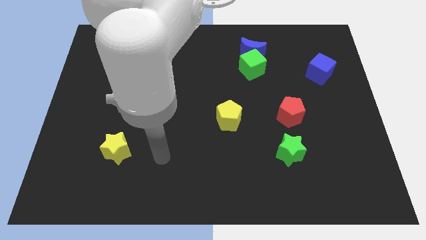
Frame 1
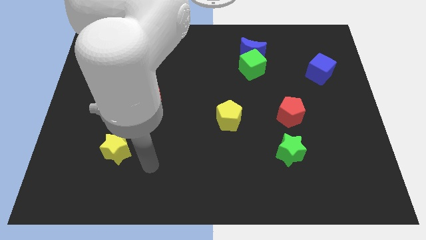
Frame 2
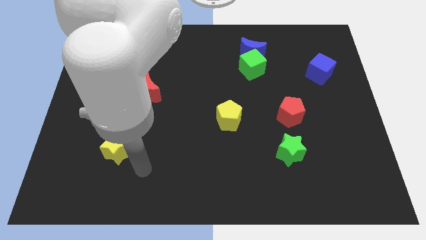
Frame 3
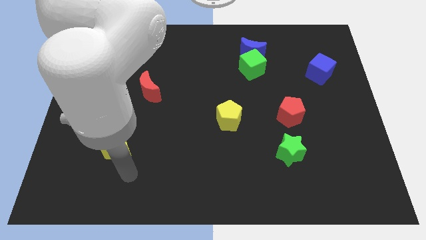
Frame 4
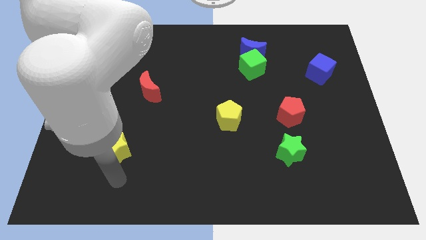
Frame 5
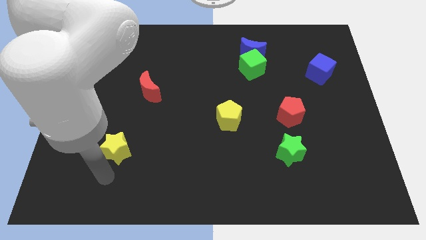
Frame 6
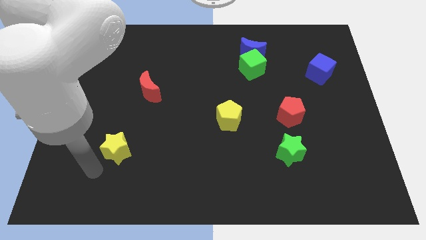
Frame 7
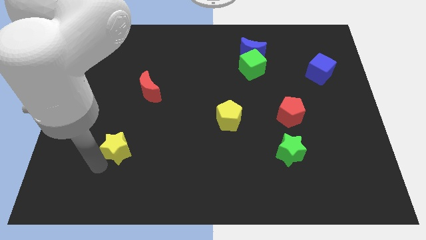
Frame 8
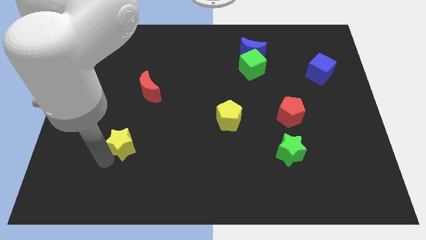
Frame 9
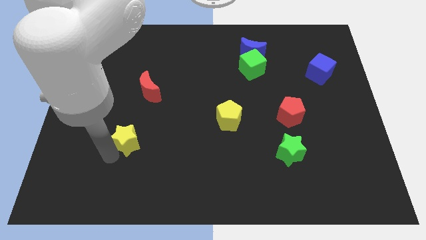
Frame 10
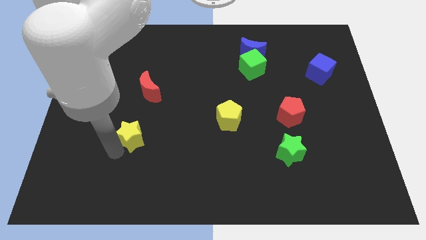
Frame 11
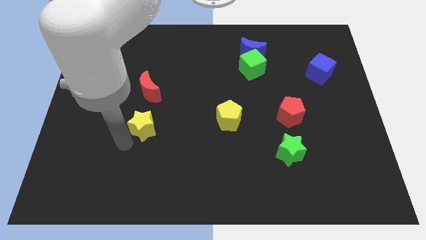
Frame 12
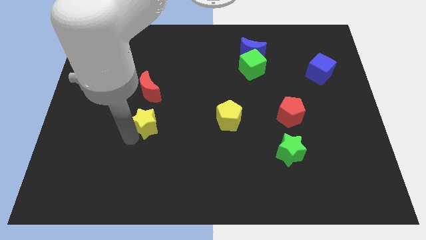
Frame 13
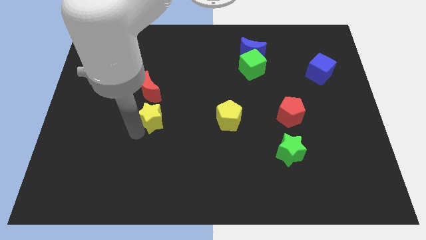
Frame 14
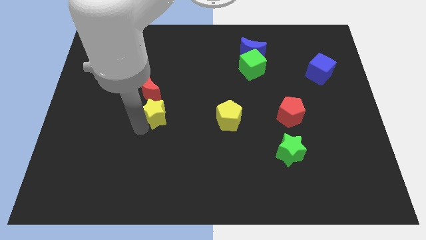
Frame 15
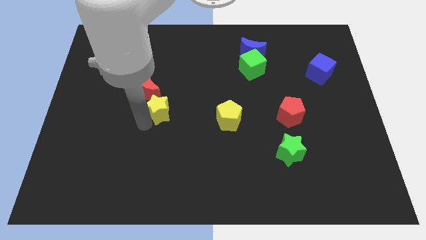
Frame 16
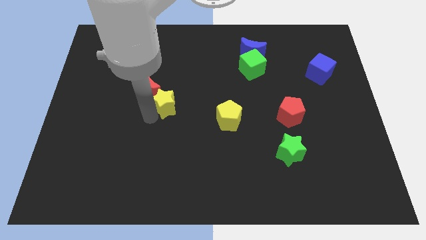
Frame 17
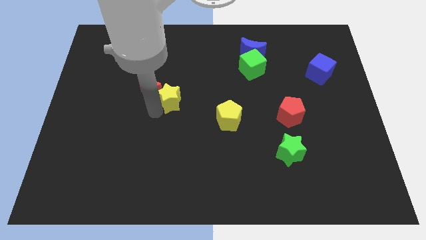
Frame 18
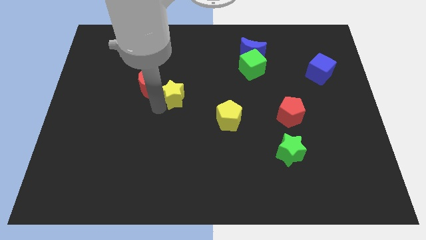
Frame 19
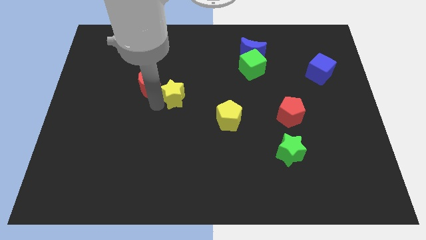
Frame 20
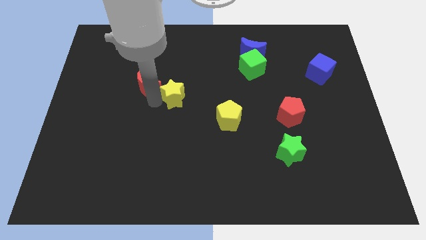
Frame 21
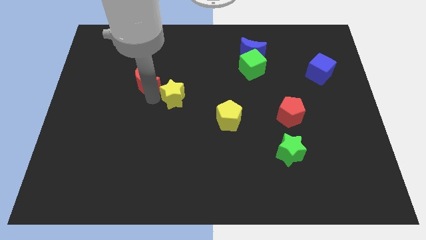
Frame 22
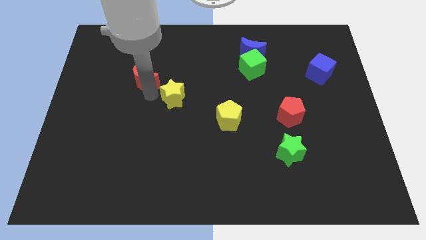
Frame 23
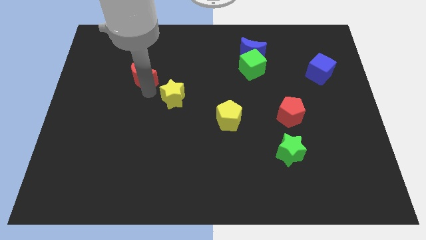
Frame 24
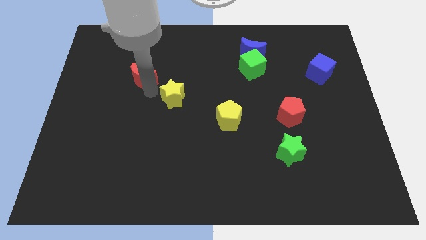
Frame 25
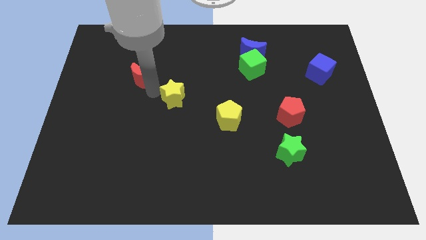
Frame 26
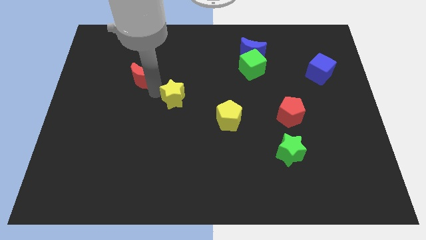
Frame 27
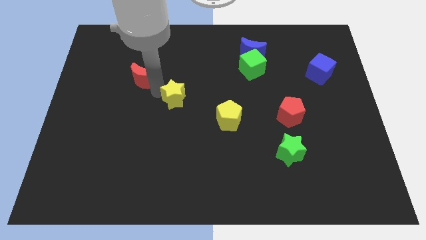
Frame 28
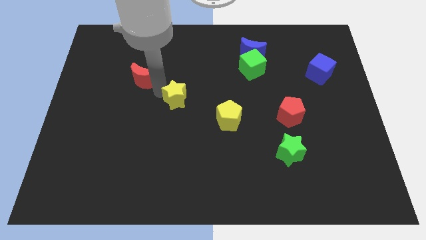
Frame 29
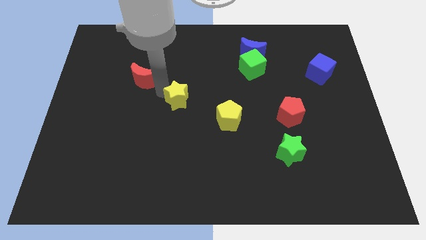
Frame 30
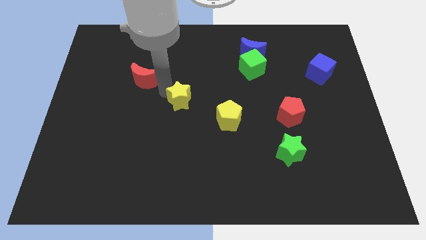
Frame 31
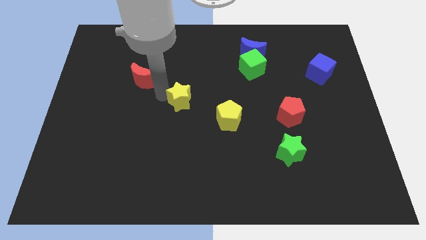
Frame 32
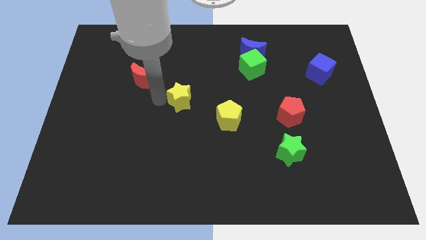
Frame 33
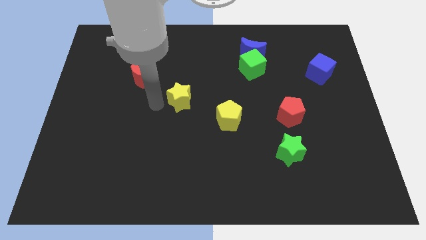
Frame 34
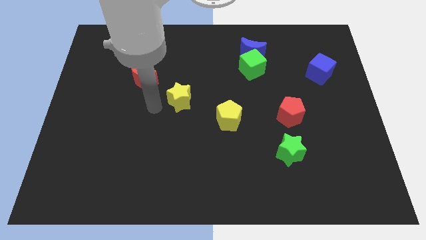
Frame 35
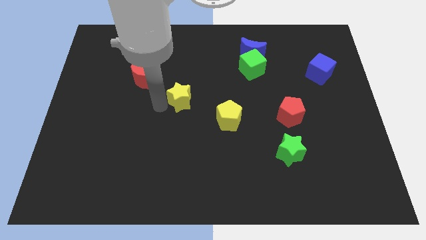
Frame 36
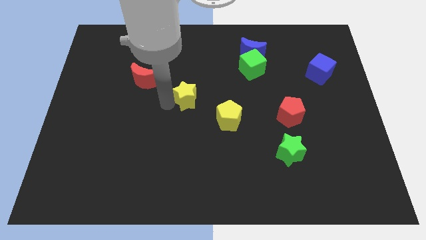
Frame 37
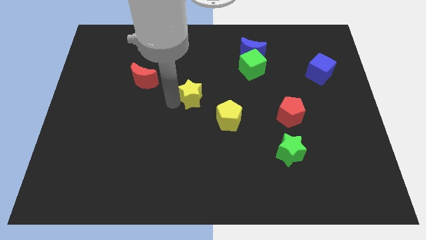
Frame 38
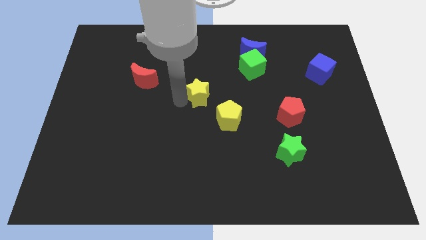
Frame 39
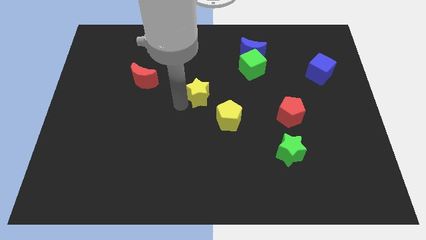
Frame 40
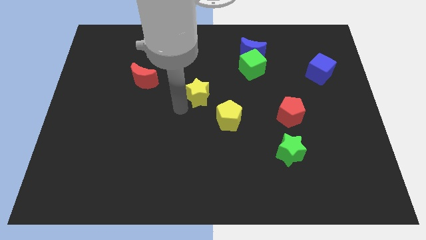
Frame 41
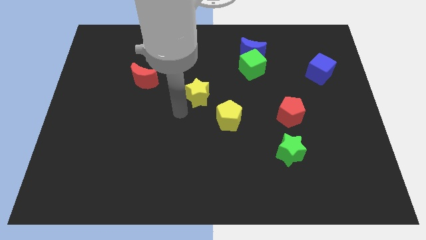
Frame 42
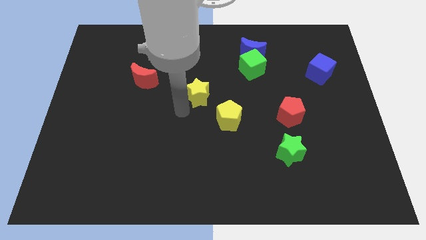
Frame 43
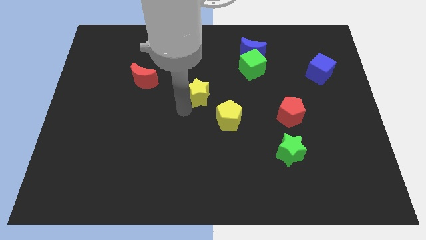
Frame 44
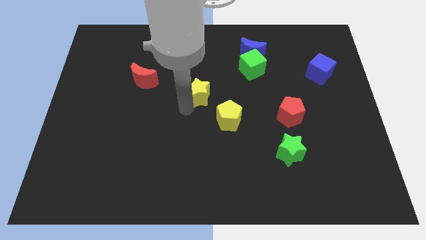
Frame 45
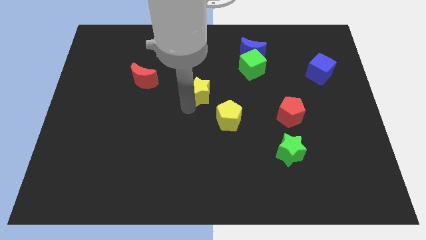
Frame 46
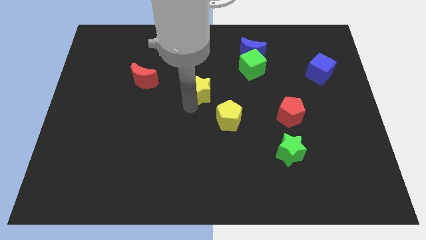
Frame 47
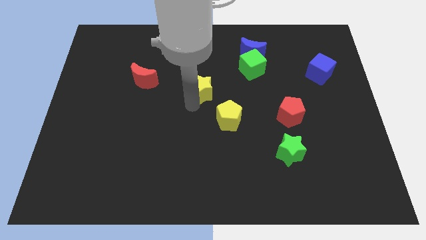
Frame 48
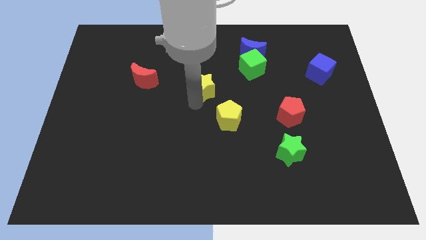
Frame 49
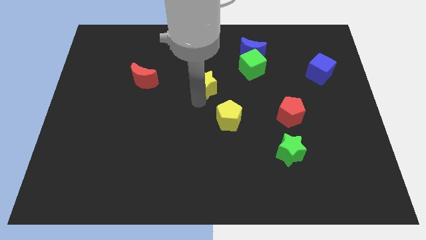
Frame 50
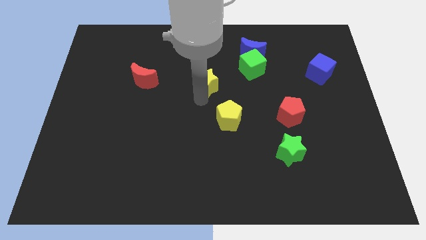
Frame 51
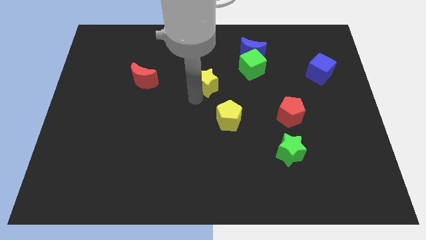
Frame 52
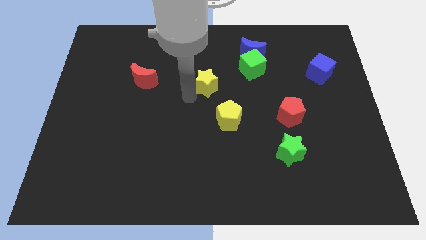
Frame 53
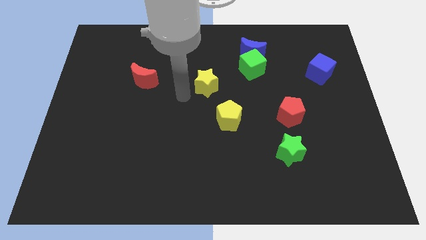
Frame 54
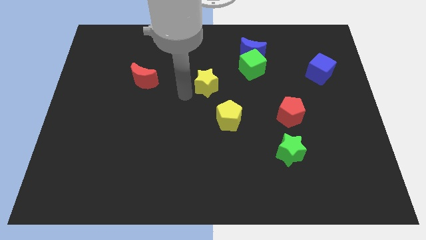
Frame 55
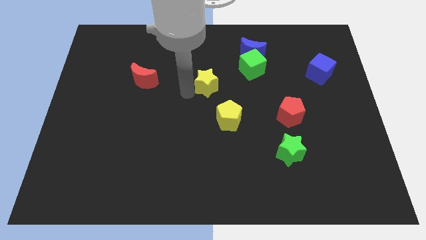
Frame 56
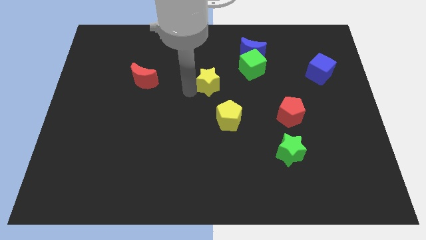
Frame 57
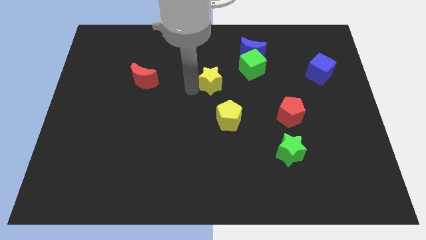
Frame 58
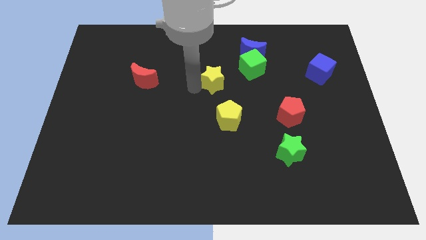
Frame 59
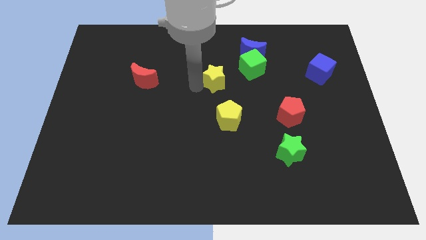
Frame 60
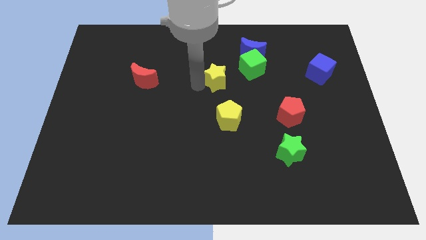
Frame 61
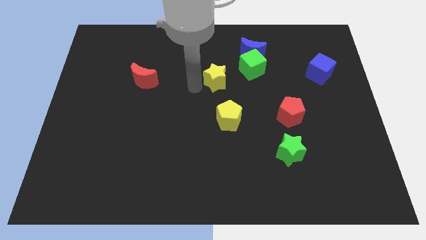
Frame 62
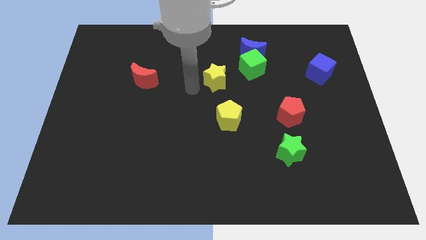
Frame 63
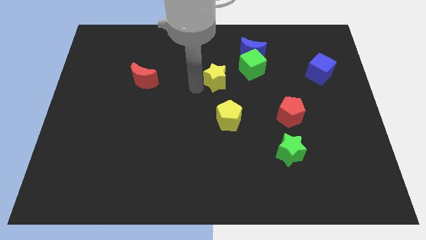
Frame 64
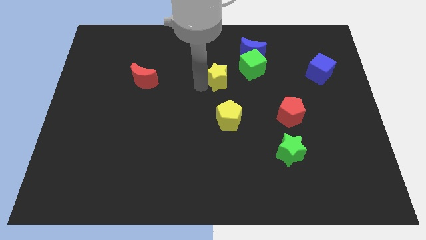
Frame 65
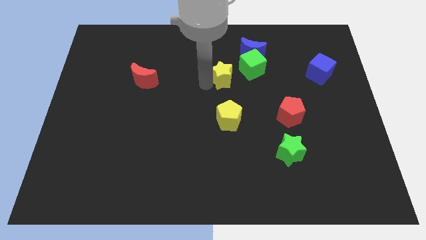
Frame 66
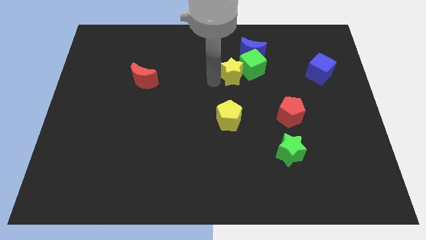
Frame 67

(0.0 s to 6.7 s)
put the yellow star close to the green cube

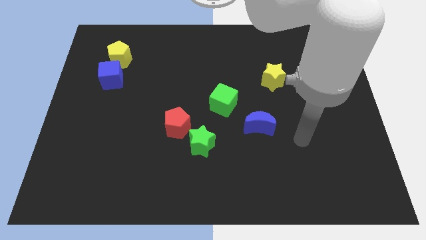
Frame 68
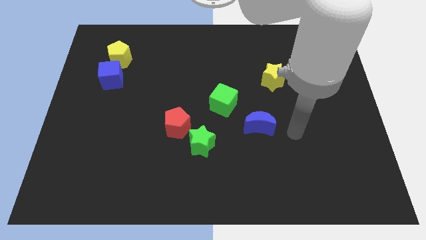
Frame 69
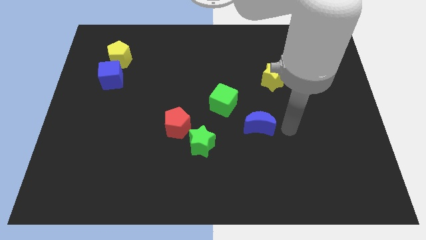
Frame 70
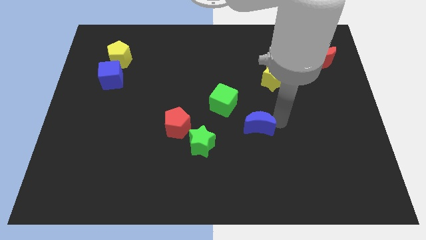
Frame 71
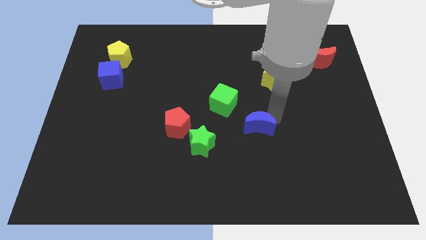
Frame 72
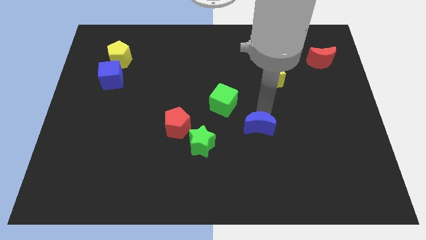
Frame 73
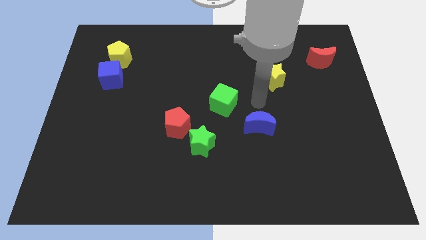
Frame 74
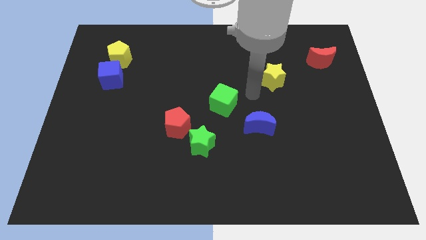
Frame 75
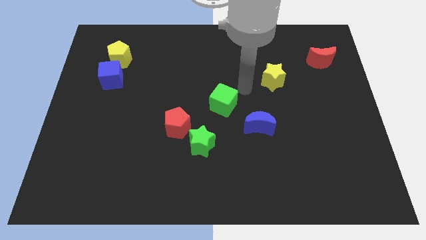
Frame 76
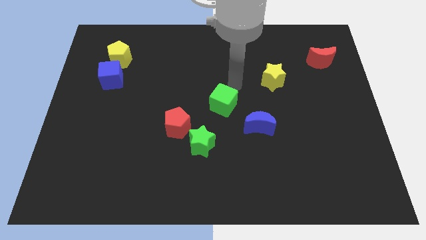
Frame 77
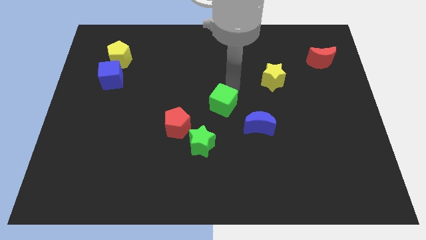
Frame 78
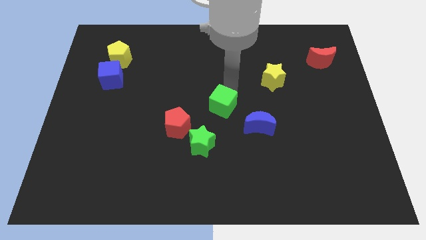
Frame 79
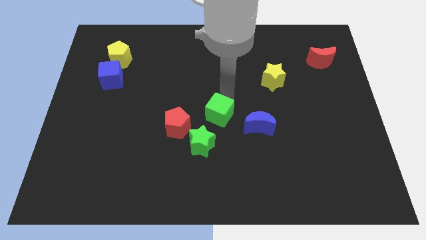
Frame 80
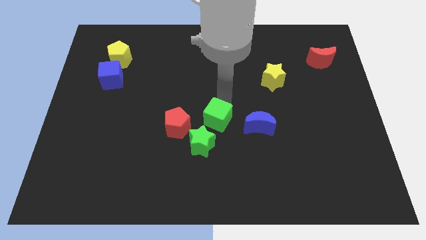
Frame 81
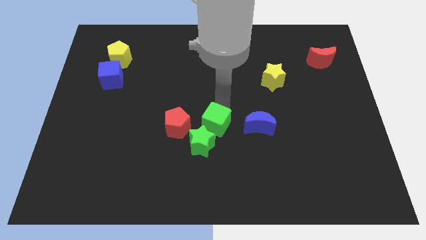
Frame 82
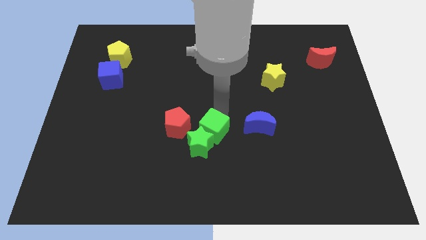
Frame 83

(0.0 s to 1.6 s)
move the green cube close to the green star
